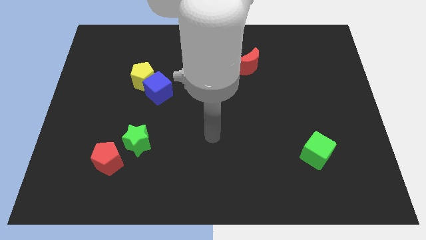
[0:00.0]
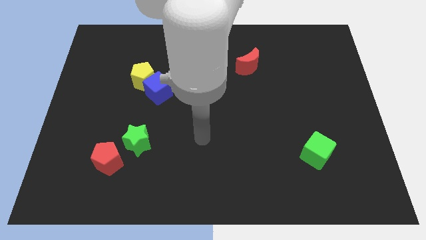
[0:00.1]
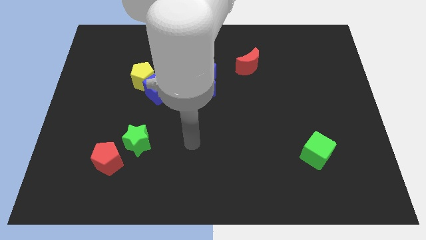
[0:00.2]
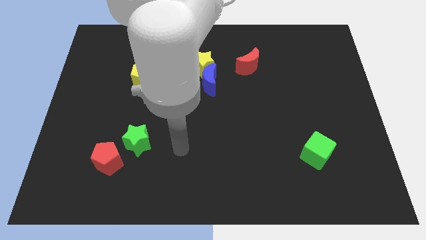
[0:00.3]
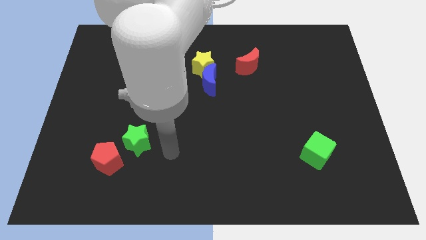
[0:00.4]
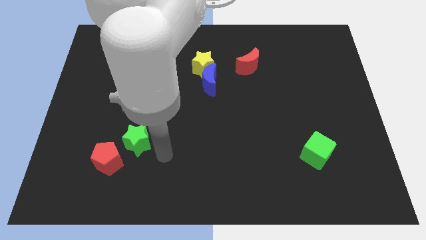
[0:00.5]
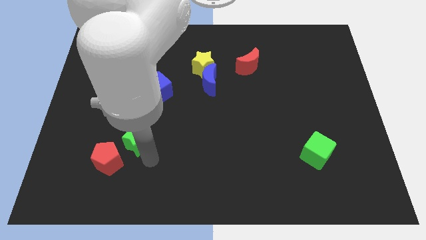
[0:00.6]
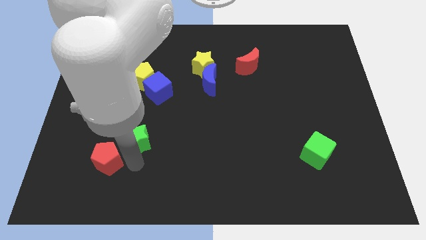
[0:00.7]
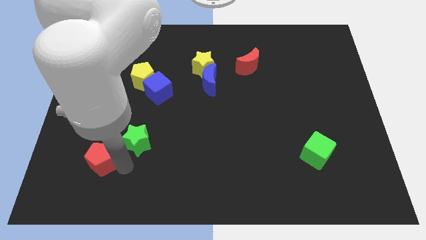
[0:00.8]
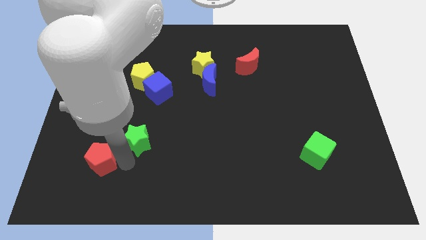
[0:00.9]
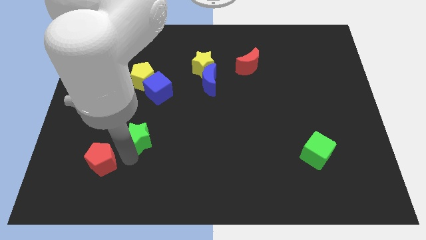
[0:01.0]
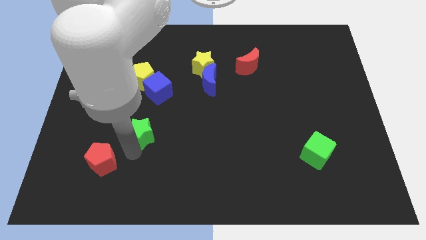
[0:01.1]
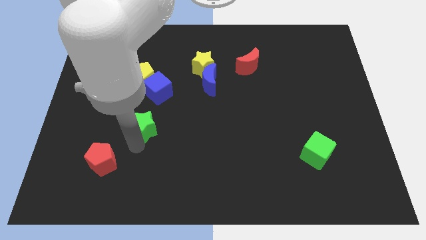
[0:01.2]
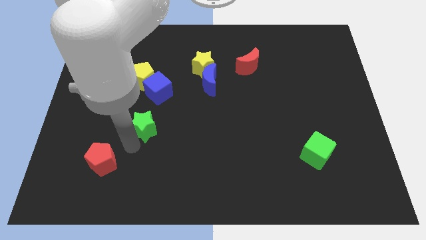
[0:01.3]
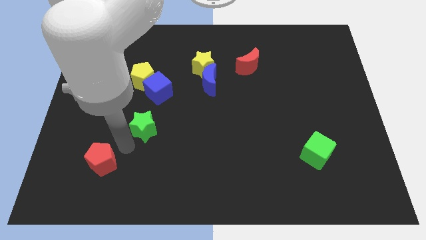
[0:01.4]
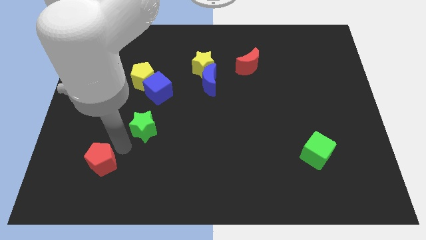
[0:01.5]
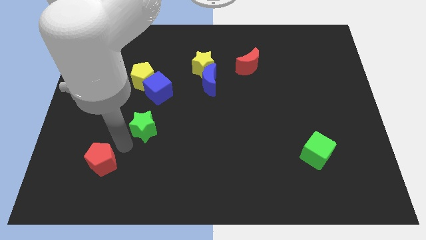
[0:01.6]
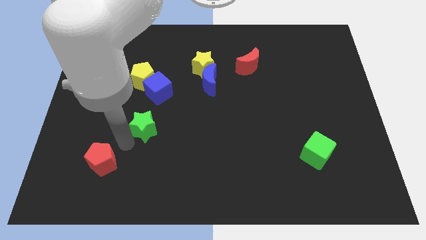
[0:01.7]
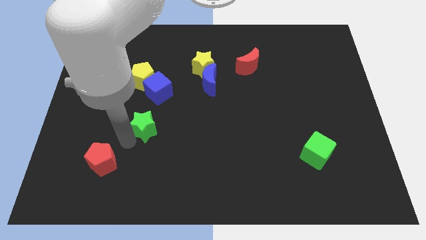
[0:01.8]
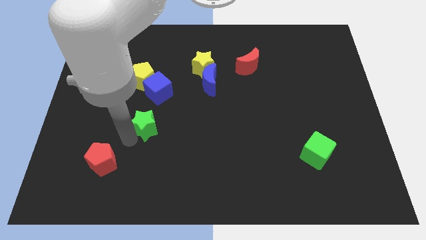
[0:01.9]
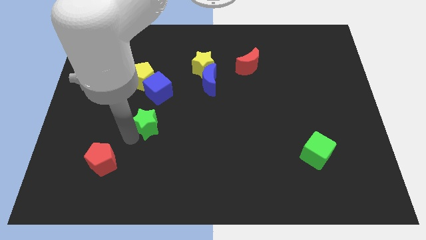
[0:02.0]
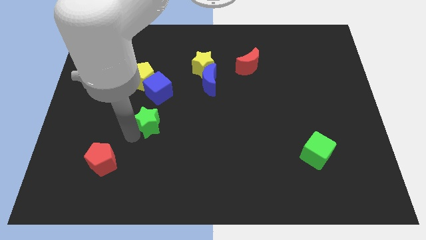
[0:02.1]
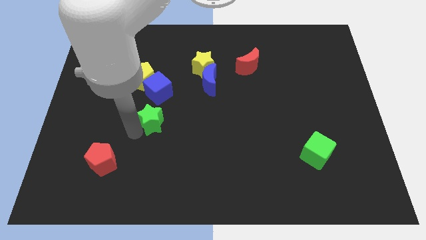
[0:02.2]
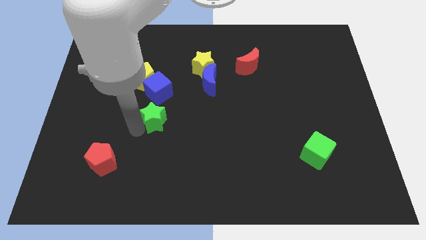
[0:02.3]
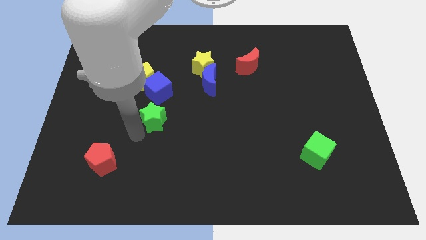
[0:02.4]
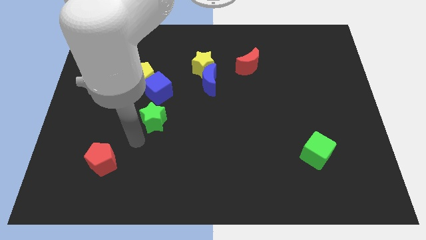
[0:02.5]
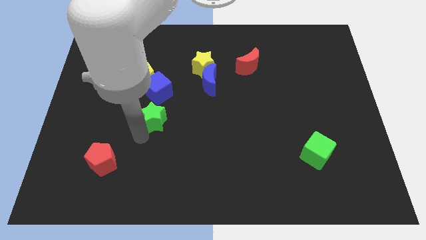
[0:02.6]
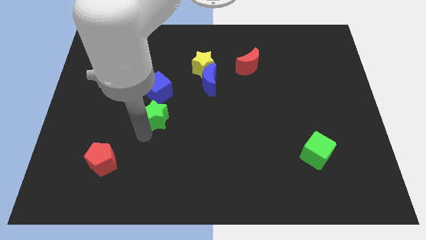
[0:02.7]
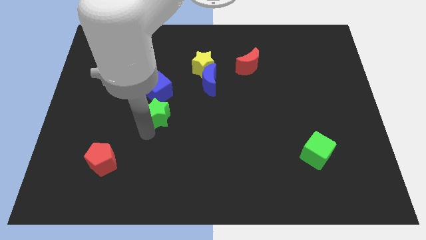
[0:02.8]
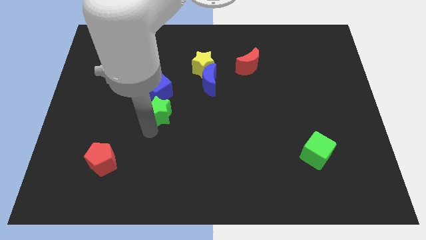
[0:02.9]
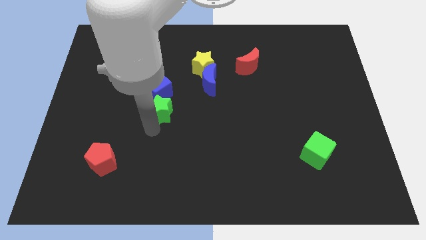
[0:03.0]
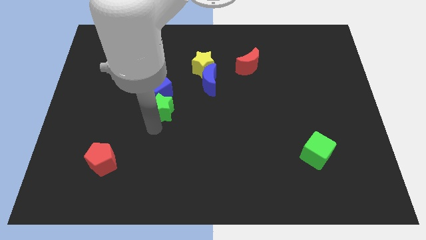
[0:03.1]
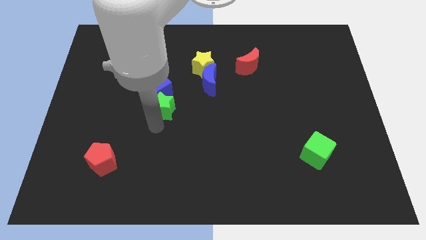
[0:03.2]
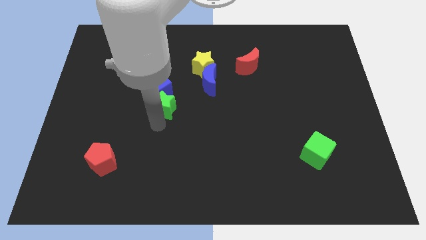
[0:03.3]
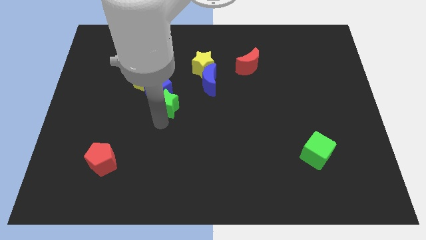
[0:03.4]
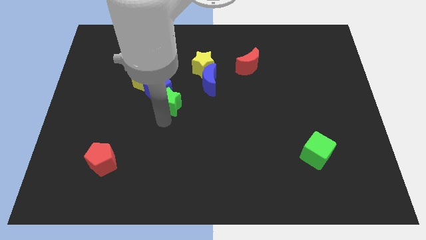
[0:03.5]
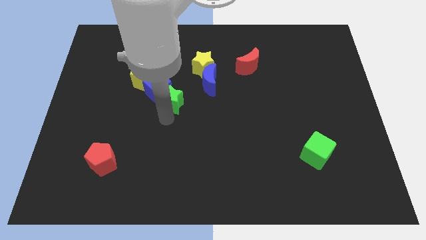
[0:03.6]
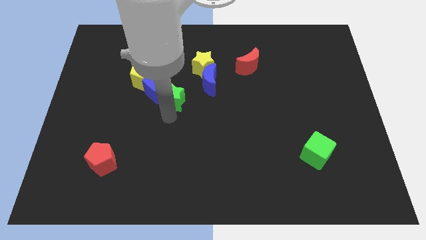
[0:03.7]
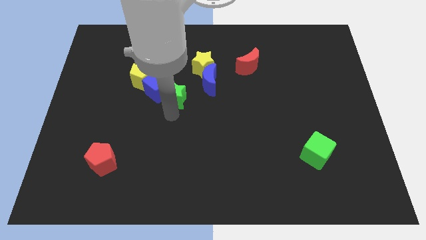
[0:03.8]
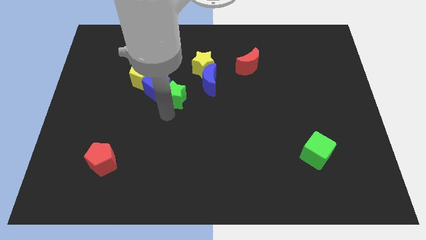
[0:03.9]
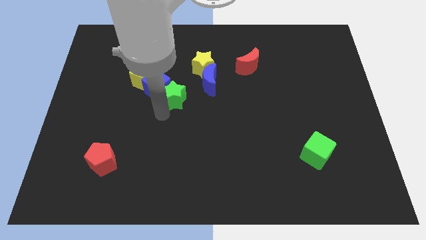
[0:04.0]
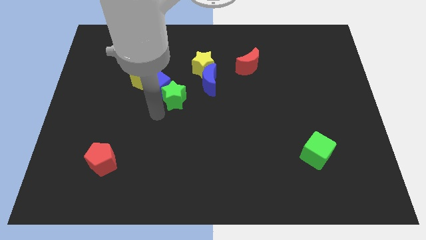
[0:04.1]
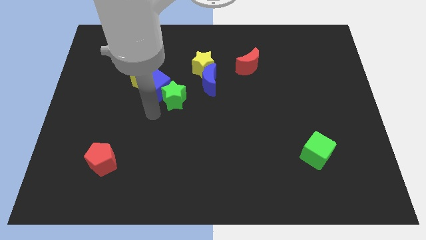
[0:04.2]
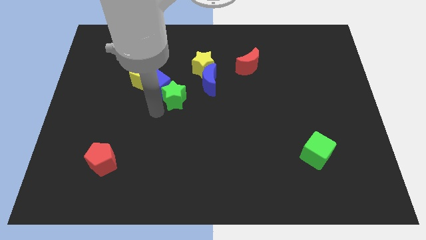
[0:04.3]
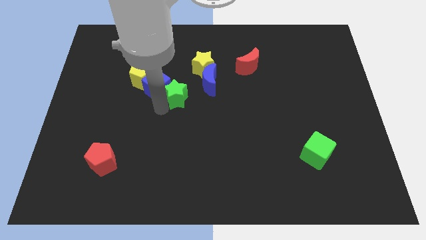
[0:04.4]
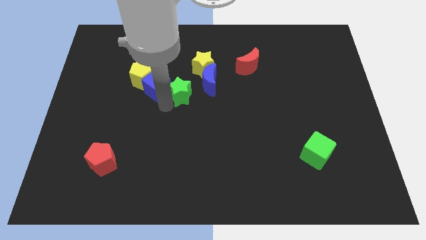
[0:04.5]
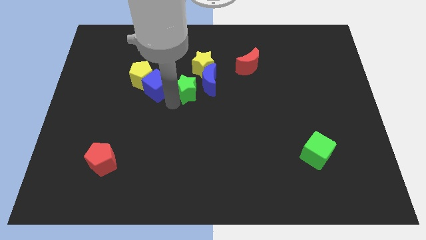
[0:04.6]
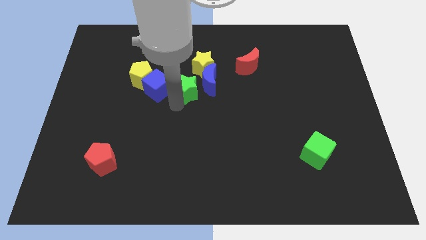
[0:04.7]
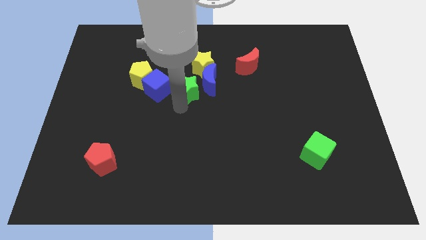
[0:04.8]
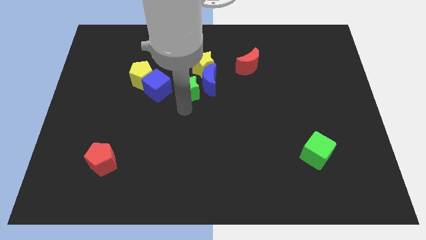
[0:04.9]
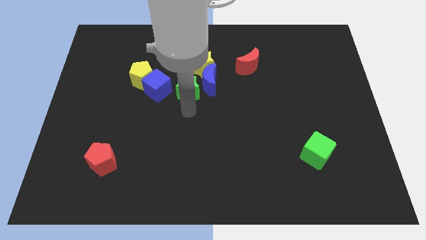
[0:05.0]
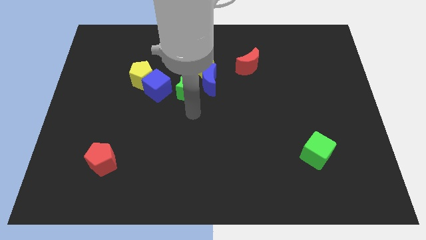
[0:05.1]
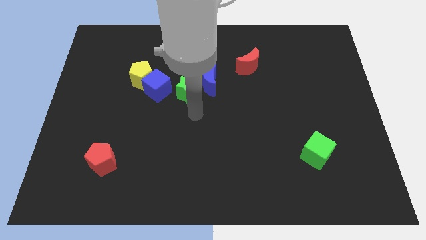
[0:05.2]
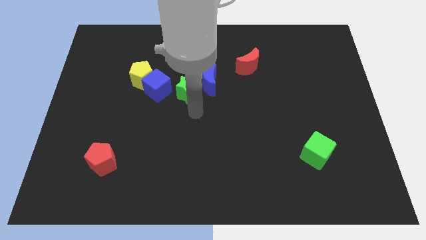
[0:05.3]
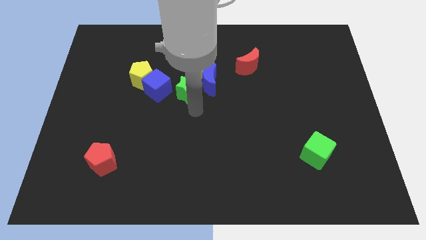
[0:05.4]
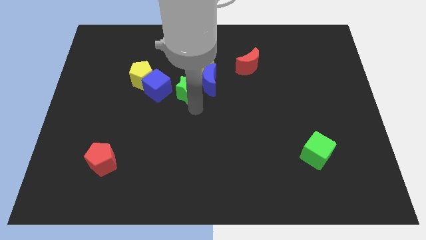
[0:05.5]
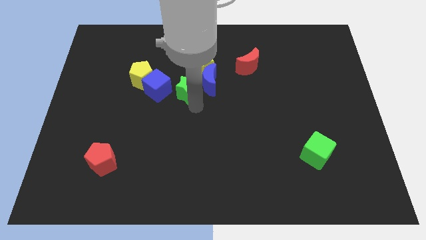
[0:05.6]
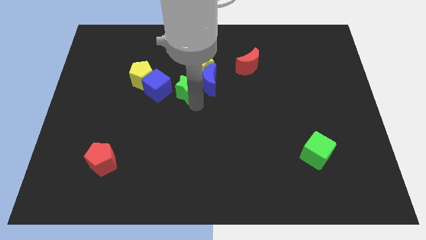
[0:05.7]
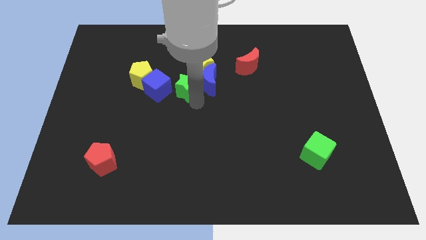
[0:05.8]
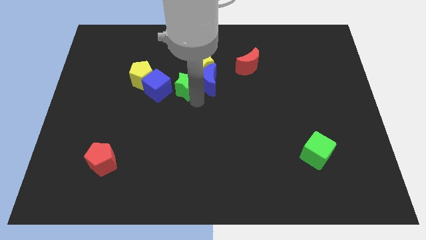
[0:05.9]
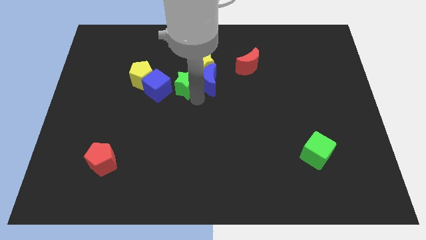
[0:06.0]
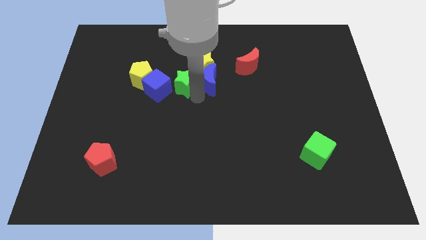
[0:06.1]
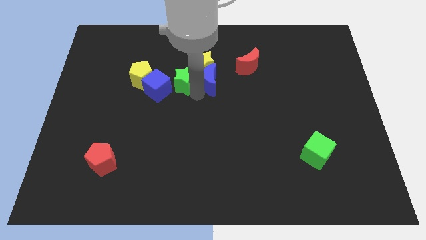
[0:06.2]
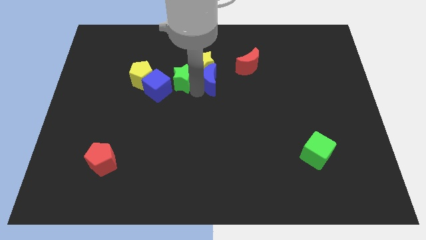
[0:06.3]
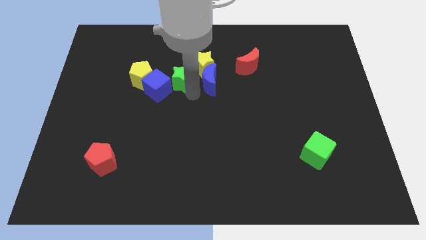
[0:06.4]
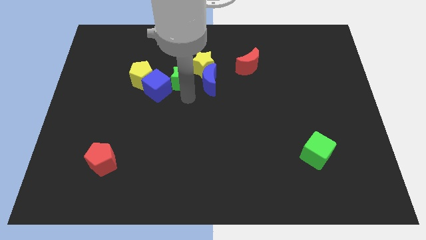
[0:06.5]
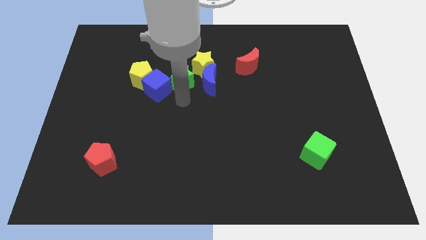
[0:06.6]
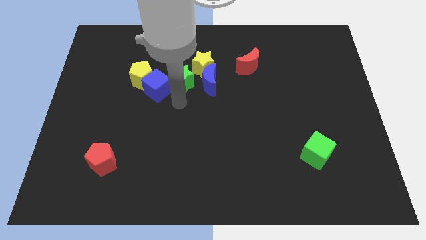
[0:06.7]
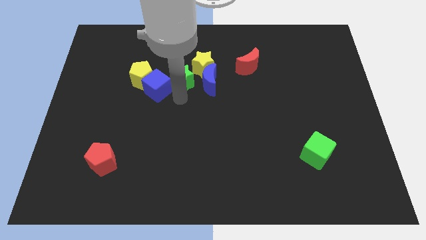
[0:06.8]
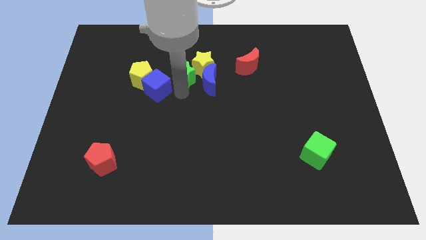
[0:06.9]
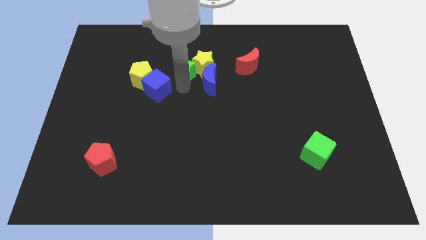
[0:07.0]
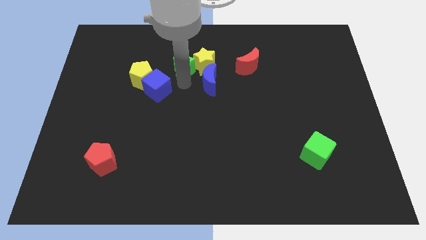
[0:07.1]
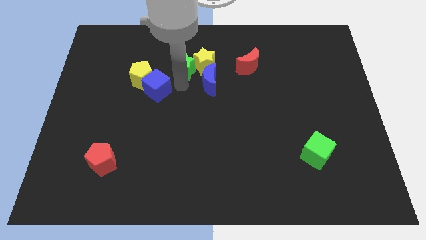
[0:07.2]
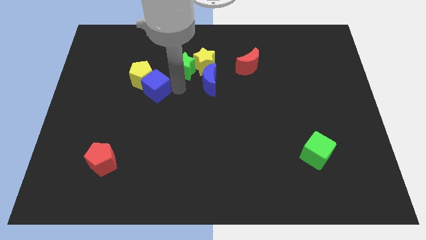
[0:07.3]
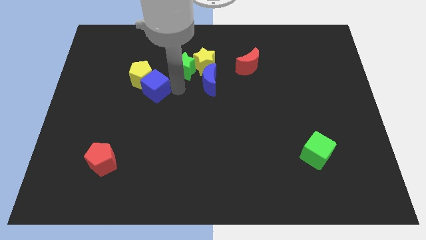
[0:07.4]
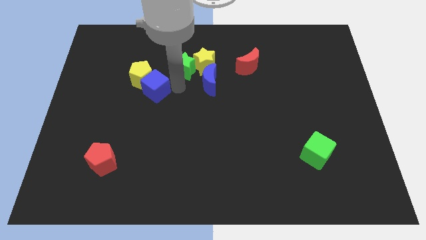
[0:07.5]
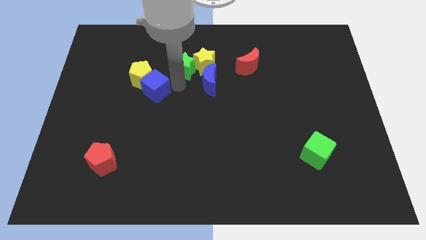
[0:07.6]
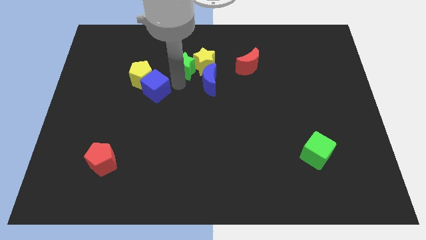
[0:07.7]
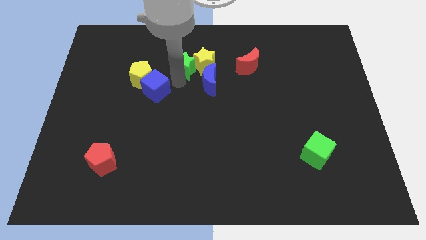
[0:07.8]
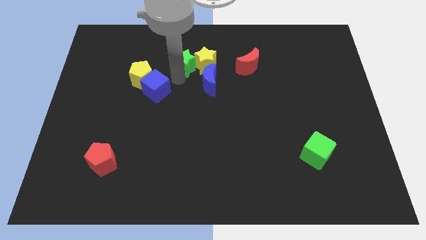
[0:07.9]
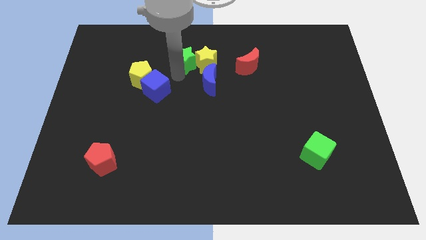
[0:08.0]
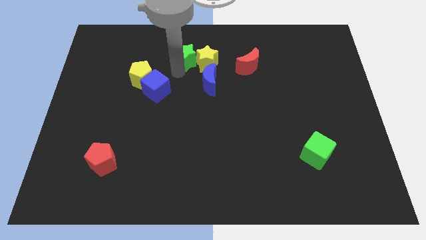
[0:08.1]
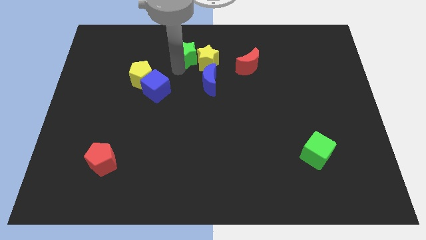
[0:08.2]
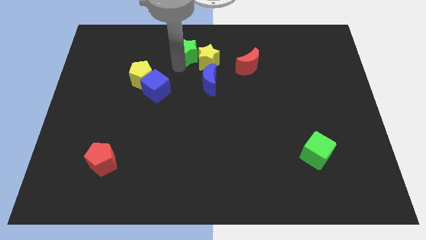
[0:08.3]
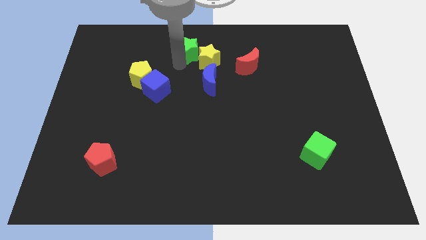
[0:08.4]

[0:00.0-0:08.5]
push the green star to the top
